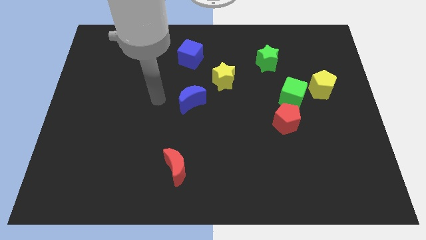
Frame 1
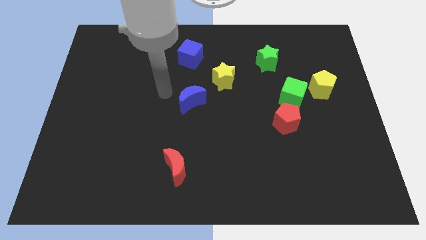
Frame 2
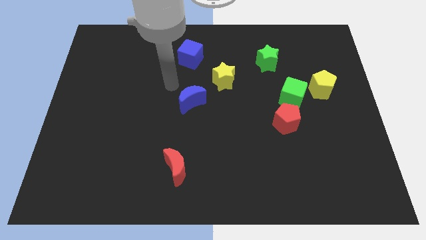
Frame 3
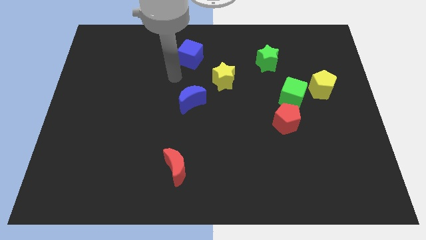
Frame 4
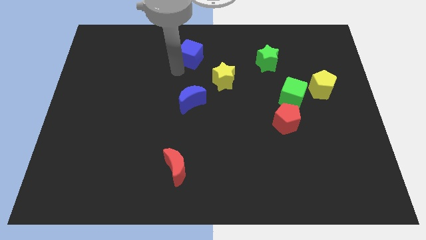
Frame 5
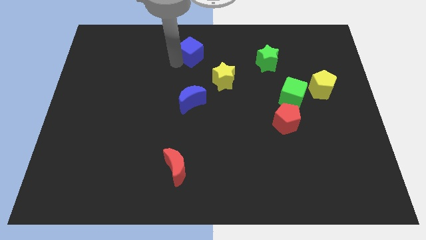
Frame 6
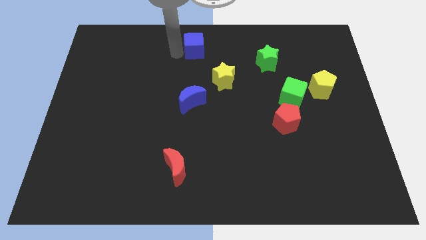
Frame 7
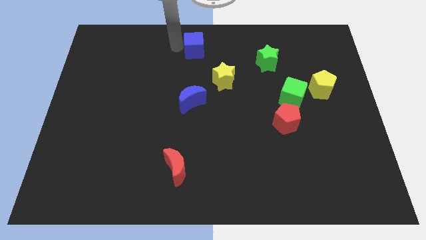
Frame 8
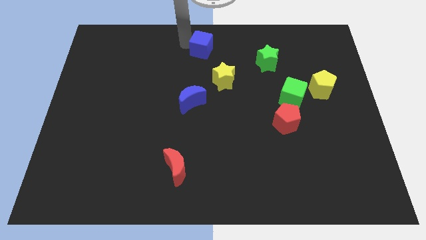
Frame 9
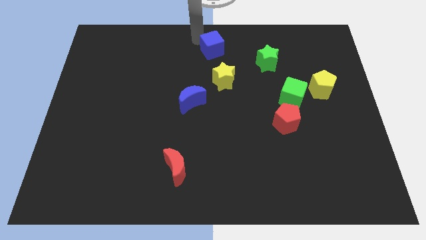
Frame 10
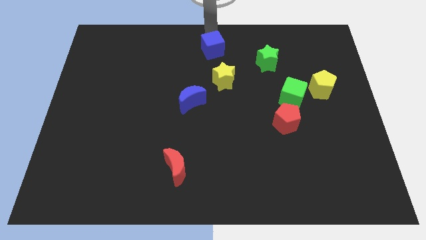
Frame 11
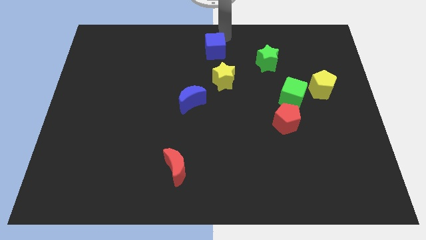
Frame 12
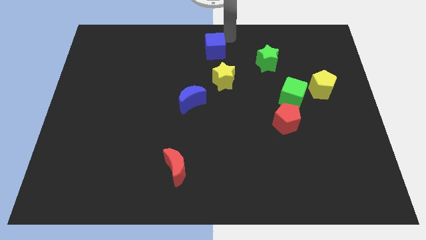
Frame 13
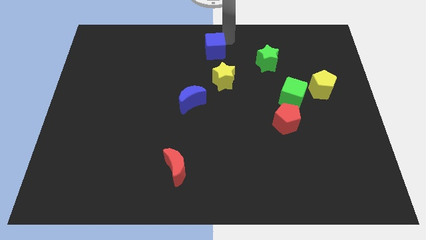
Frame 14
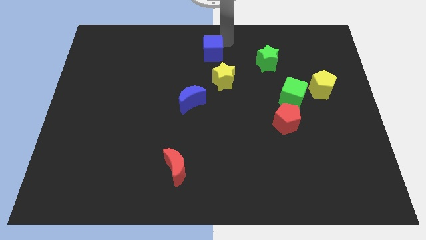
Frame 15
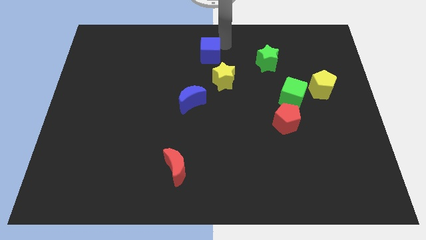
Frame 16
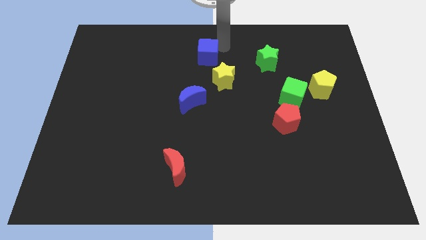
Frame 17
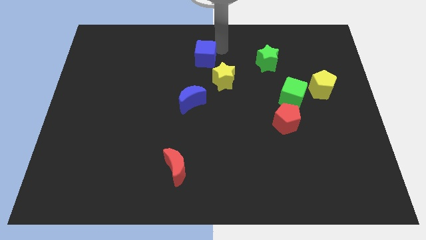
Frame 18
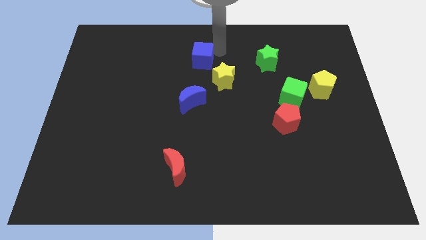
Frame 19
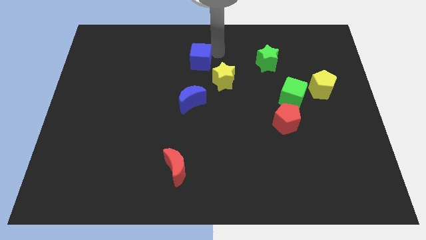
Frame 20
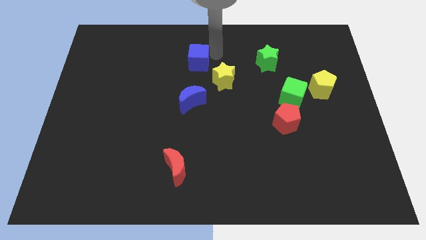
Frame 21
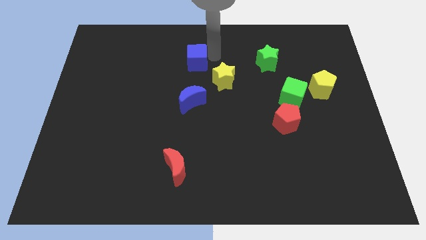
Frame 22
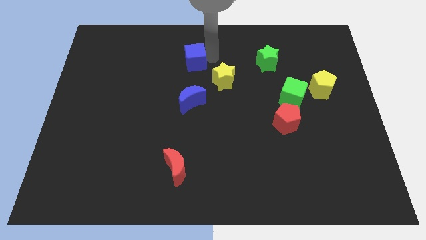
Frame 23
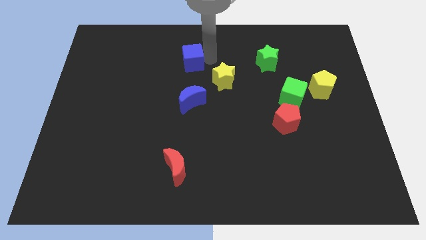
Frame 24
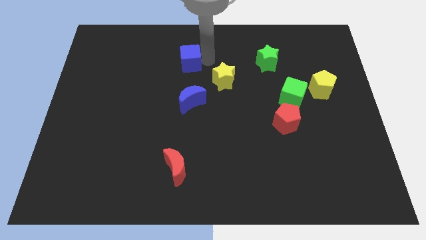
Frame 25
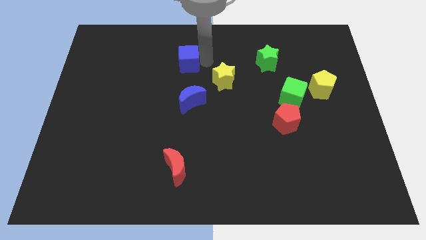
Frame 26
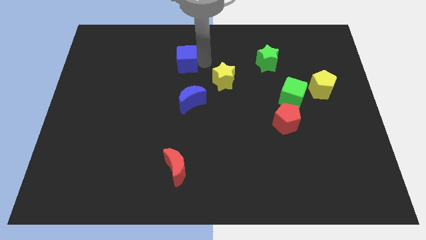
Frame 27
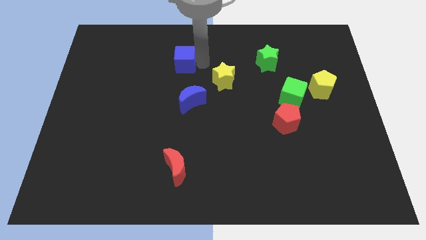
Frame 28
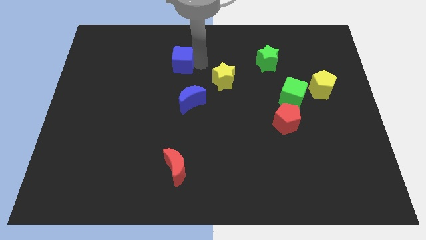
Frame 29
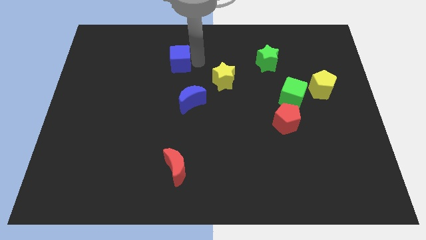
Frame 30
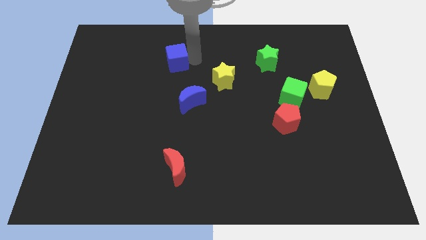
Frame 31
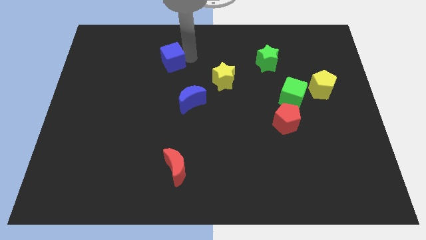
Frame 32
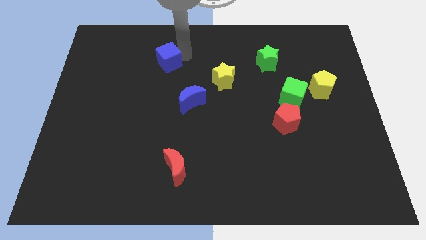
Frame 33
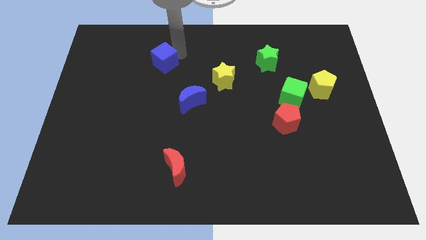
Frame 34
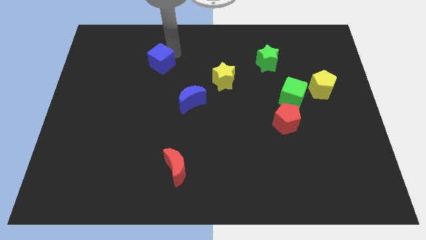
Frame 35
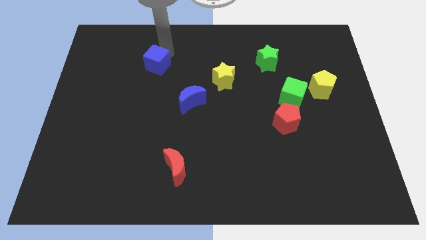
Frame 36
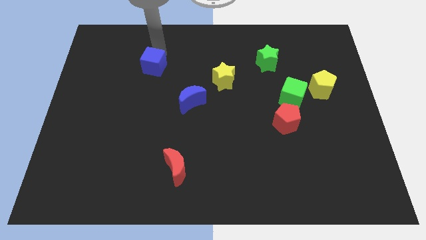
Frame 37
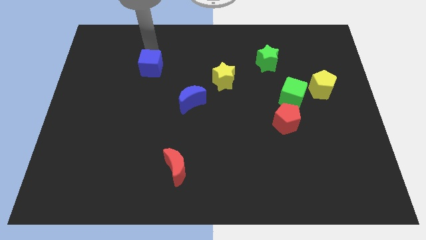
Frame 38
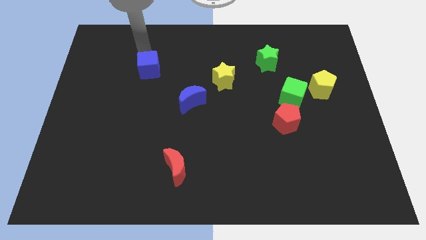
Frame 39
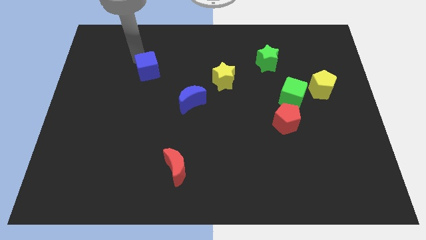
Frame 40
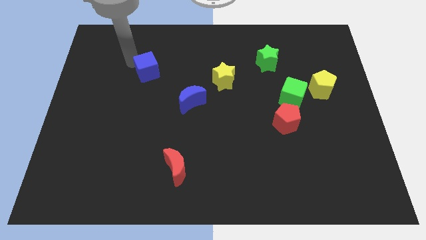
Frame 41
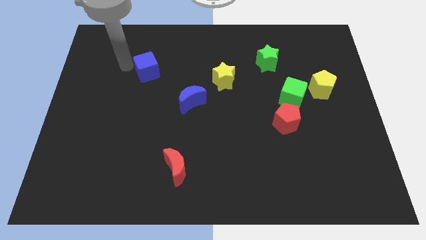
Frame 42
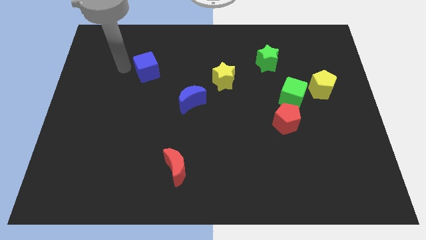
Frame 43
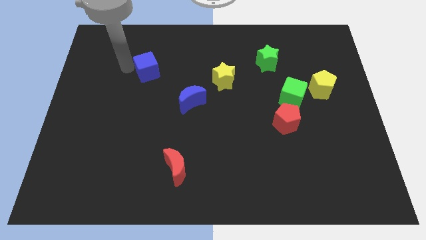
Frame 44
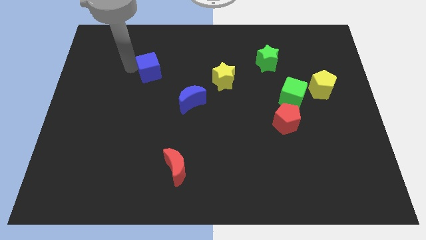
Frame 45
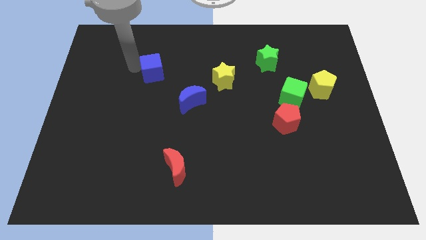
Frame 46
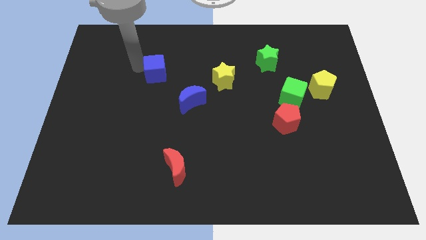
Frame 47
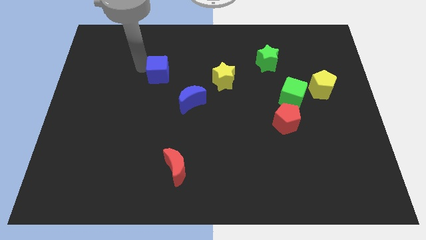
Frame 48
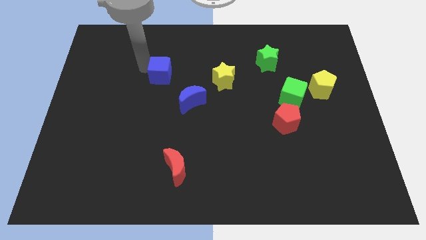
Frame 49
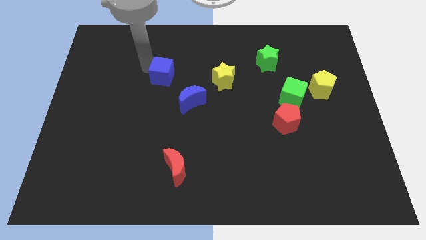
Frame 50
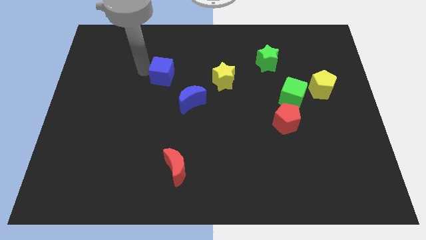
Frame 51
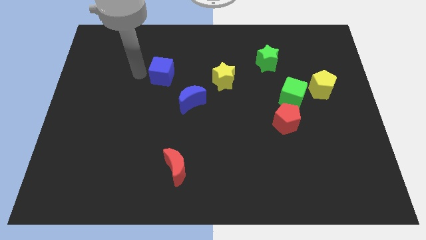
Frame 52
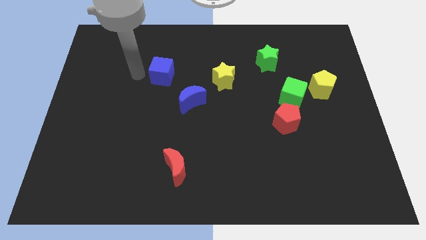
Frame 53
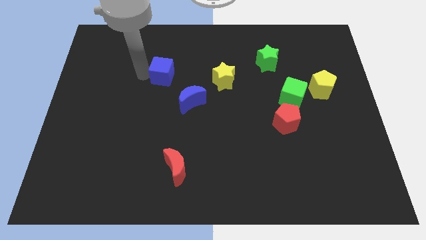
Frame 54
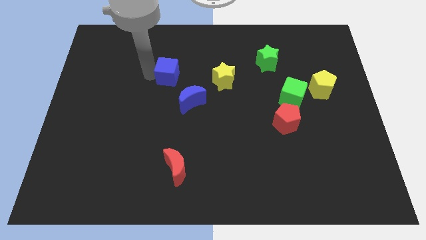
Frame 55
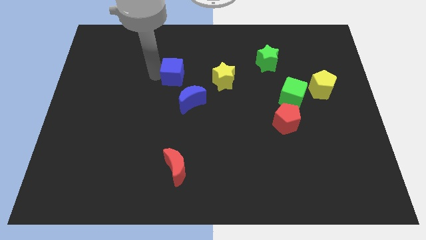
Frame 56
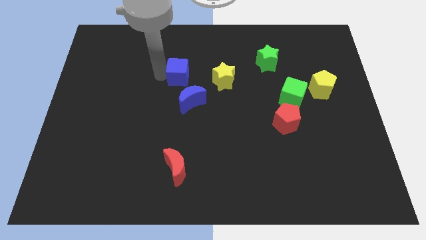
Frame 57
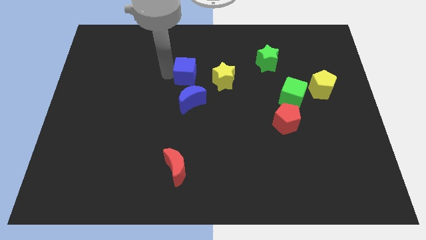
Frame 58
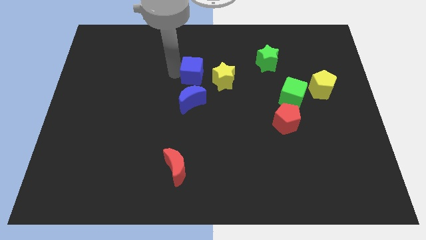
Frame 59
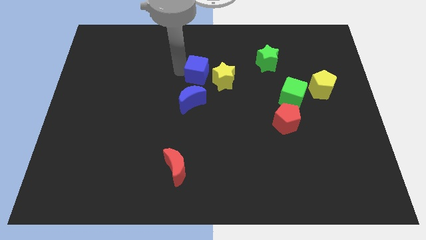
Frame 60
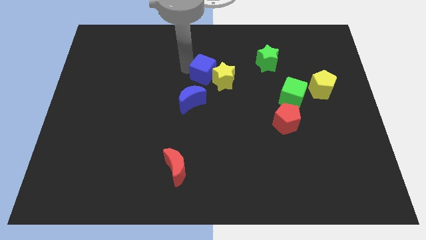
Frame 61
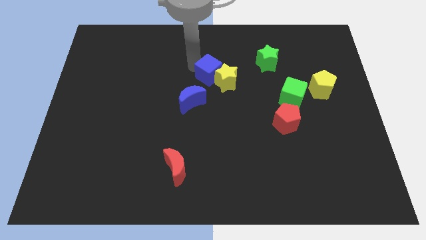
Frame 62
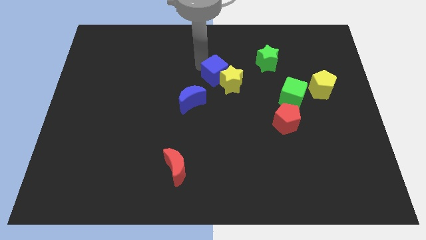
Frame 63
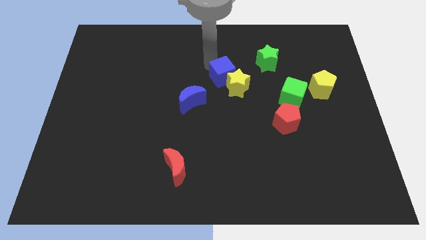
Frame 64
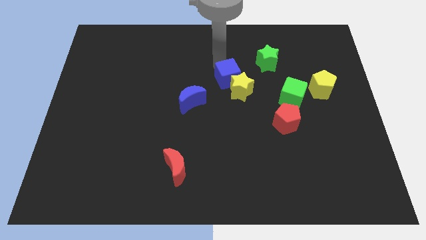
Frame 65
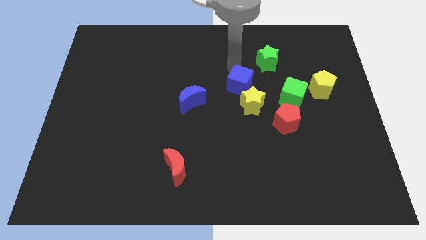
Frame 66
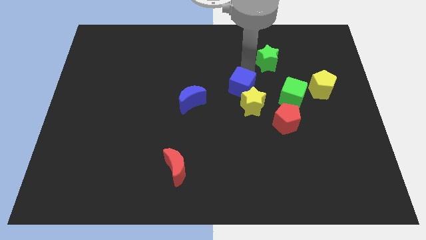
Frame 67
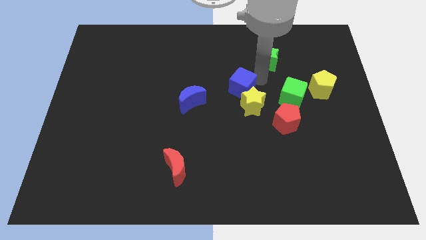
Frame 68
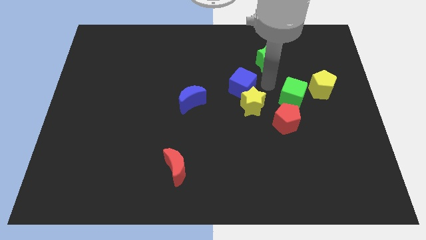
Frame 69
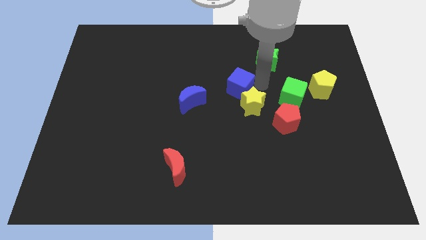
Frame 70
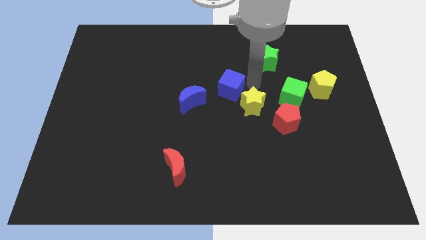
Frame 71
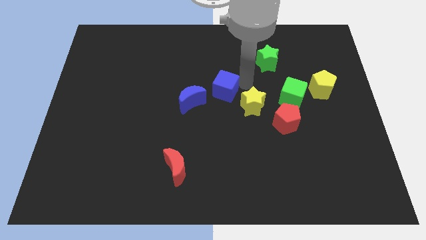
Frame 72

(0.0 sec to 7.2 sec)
slide the blue cube somewhat downwards

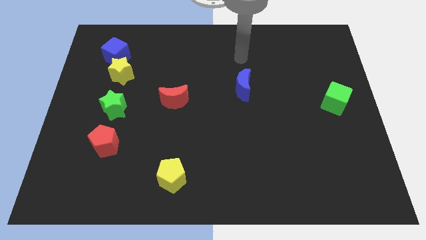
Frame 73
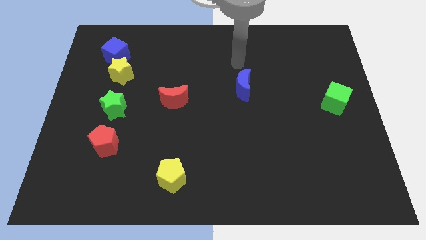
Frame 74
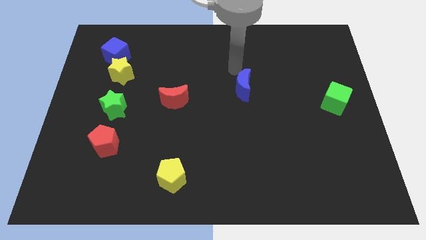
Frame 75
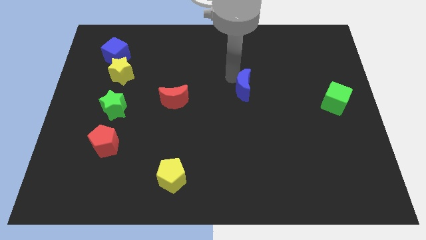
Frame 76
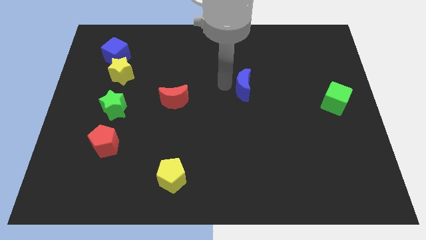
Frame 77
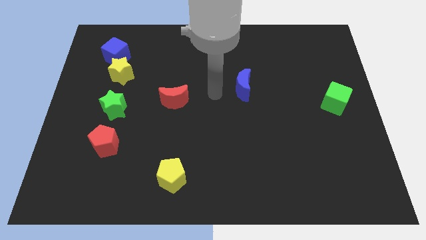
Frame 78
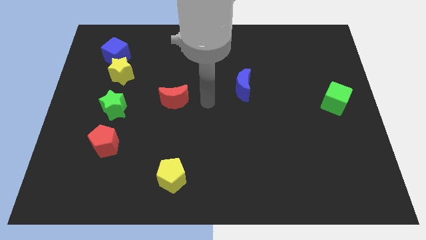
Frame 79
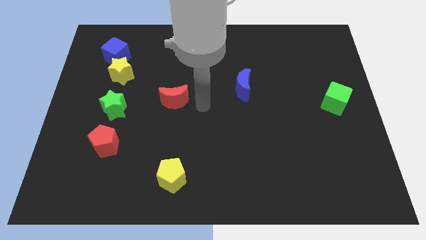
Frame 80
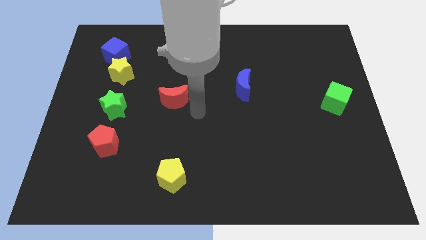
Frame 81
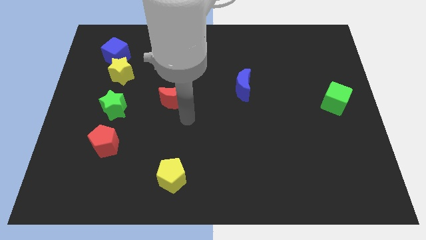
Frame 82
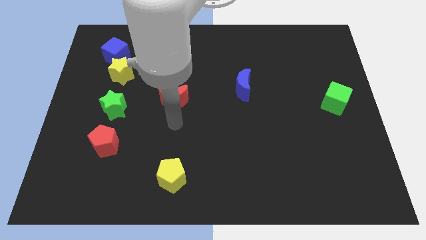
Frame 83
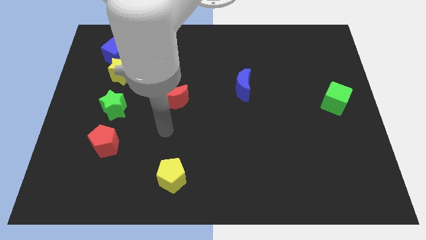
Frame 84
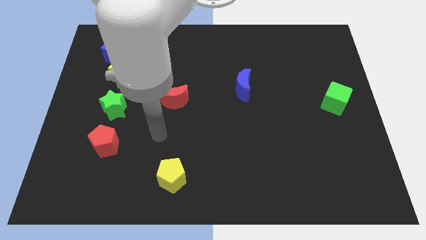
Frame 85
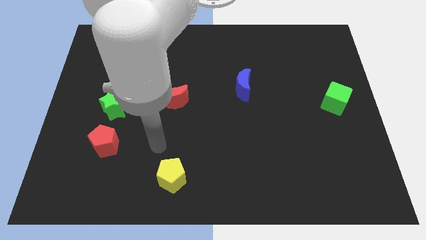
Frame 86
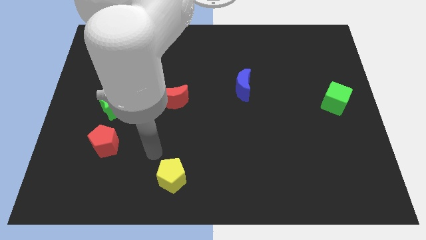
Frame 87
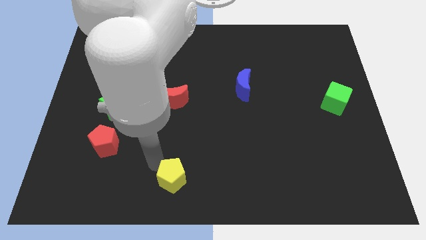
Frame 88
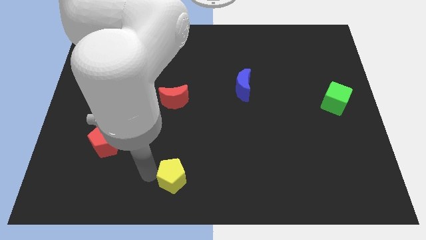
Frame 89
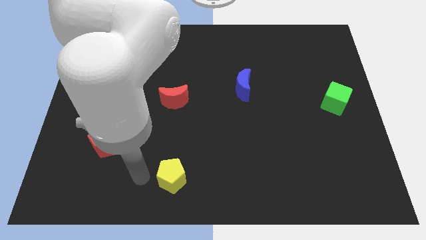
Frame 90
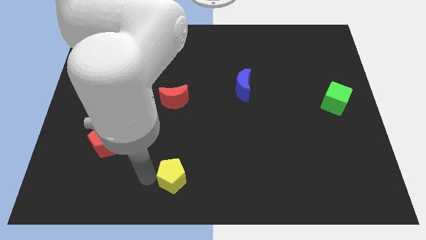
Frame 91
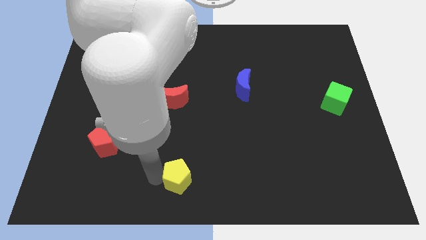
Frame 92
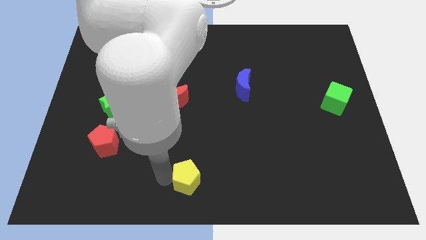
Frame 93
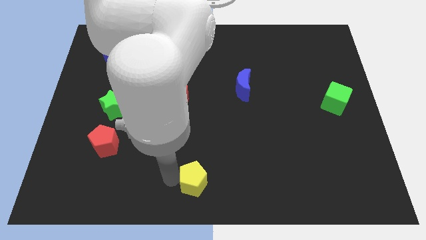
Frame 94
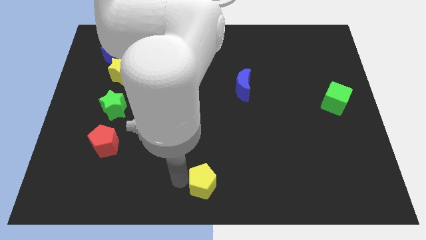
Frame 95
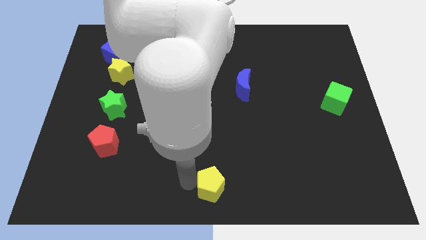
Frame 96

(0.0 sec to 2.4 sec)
slightly push the yellow pentagon right
